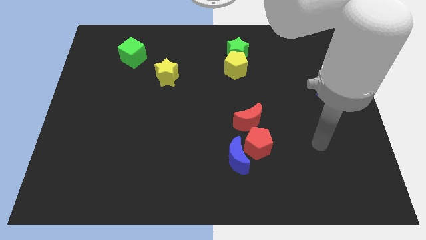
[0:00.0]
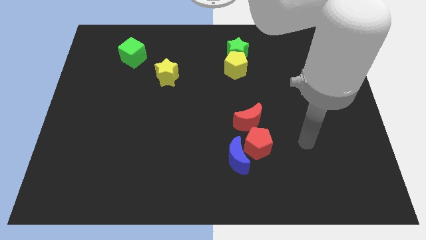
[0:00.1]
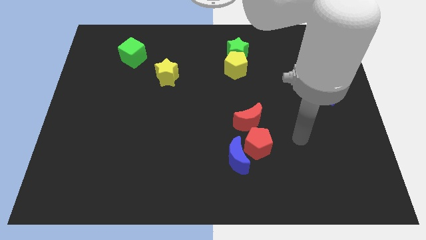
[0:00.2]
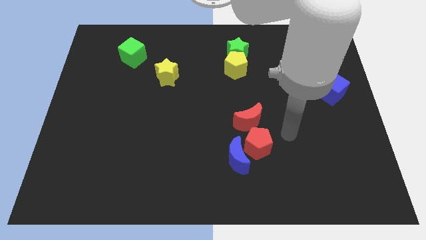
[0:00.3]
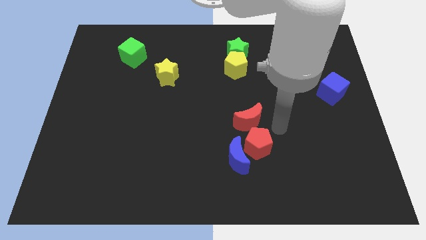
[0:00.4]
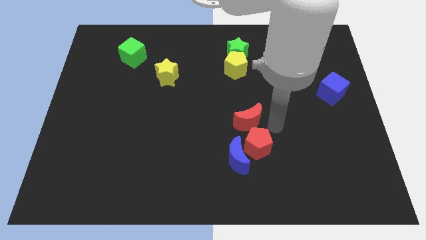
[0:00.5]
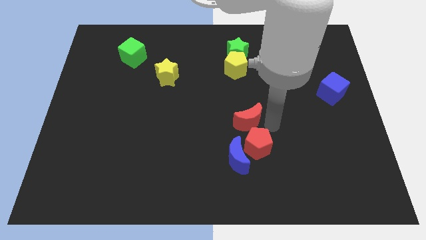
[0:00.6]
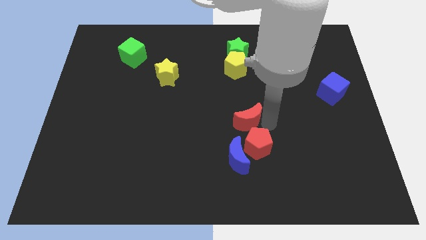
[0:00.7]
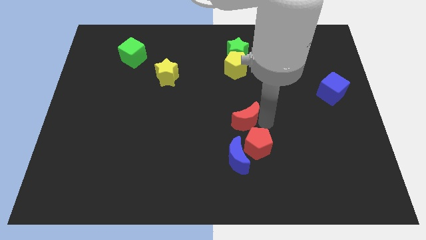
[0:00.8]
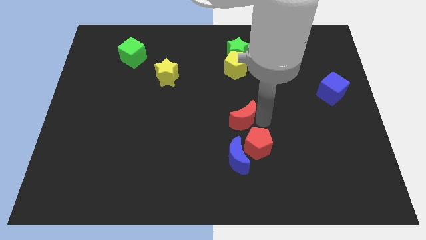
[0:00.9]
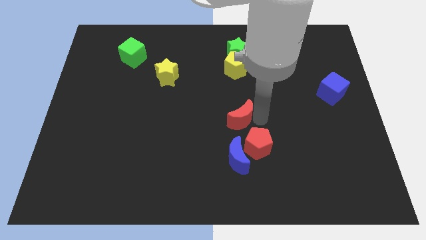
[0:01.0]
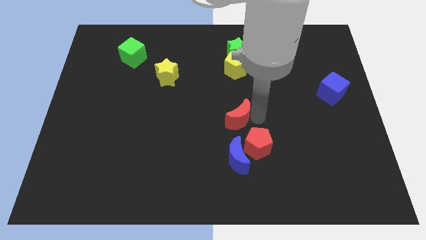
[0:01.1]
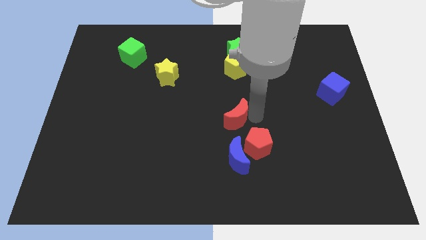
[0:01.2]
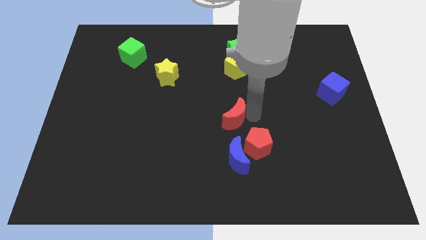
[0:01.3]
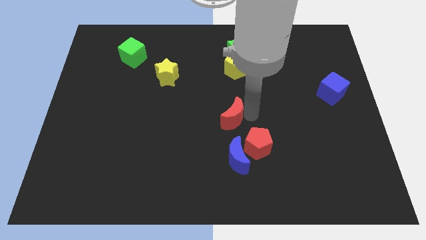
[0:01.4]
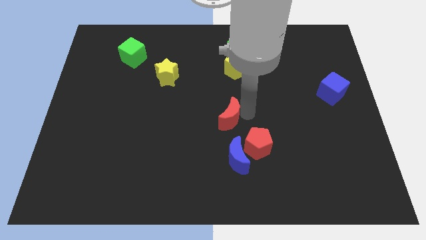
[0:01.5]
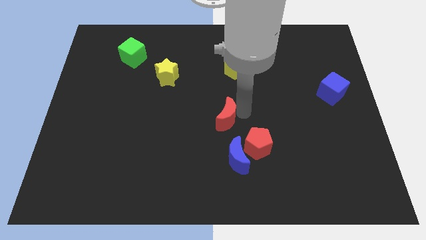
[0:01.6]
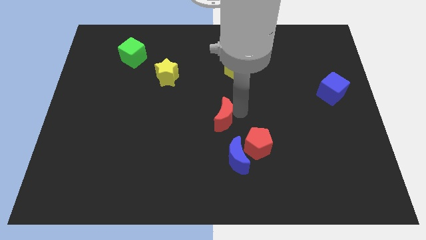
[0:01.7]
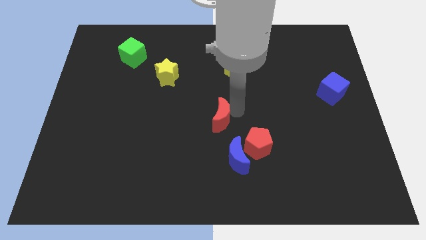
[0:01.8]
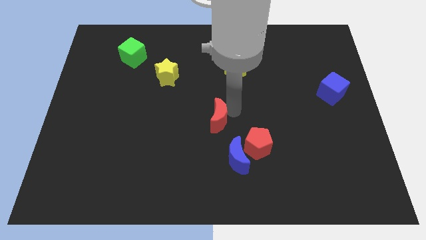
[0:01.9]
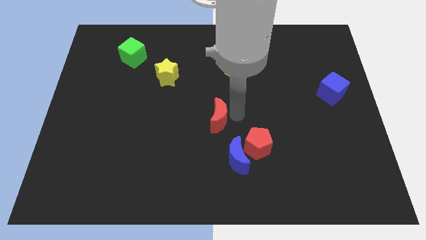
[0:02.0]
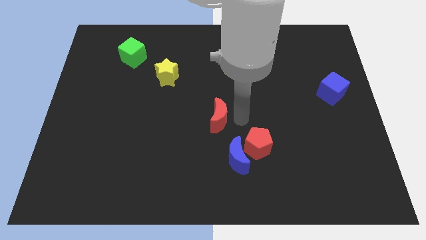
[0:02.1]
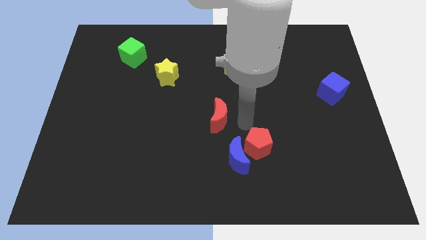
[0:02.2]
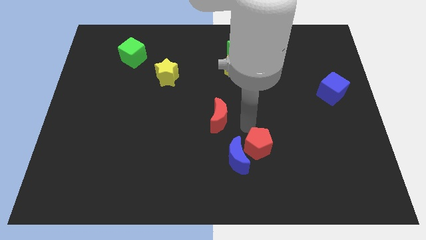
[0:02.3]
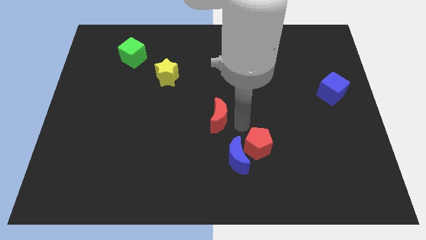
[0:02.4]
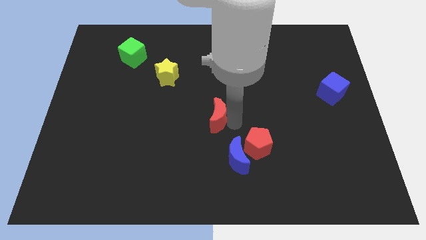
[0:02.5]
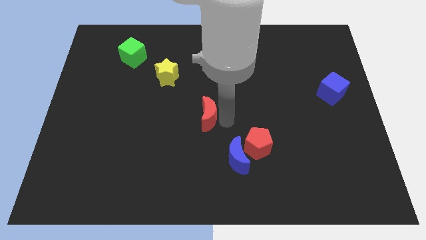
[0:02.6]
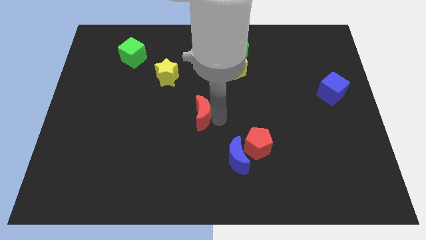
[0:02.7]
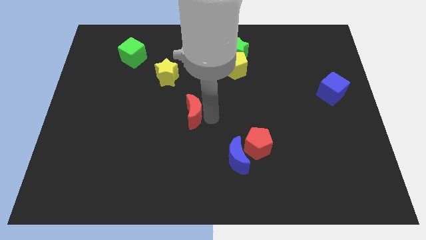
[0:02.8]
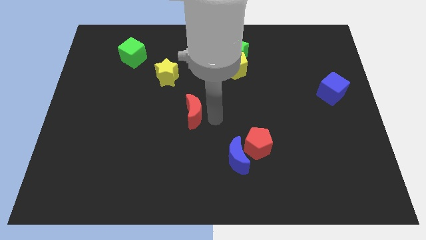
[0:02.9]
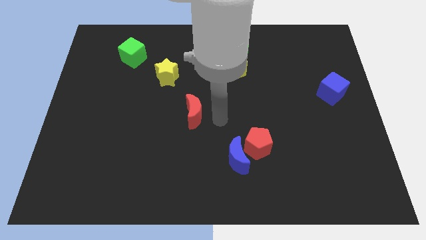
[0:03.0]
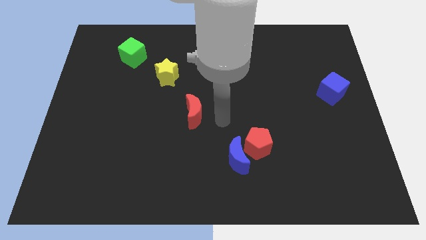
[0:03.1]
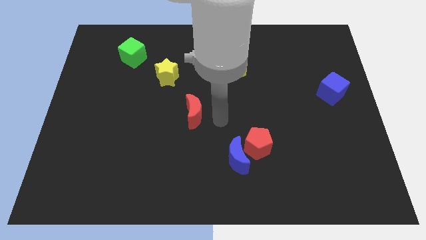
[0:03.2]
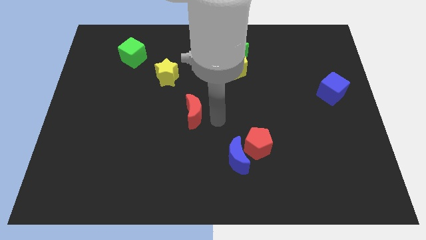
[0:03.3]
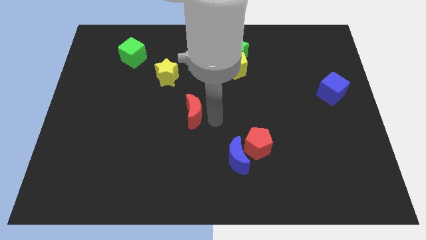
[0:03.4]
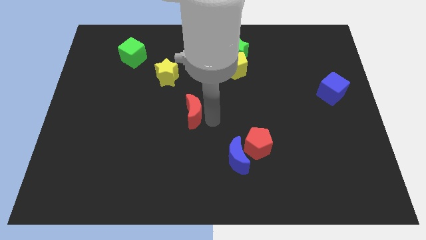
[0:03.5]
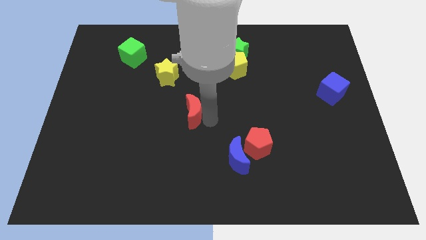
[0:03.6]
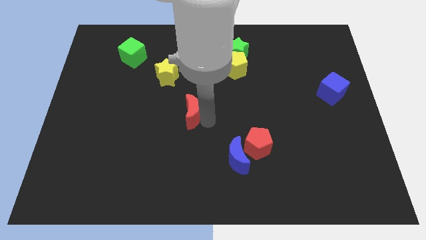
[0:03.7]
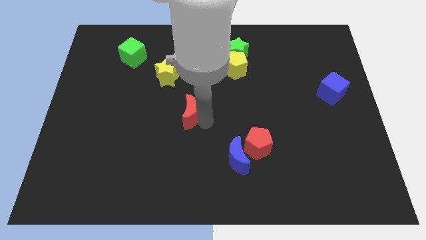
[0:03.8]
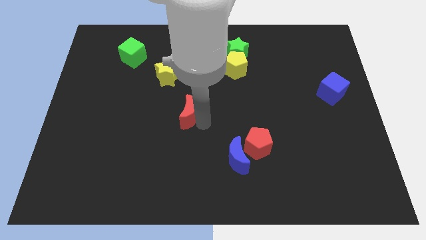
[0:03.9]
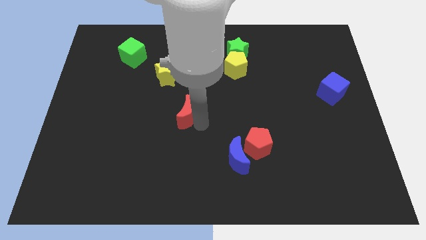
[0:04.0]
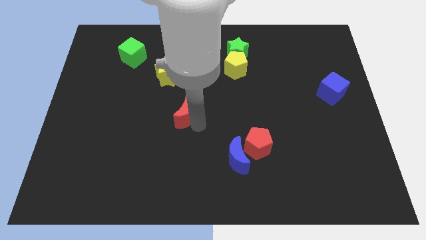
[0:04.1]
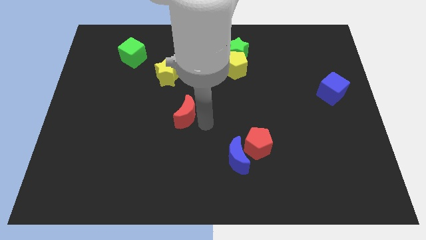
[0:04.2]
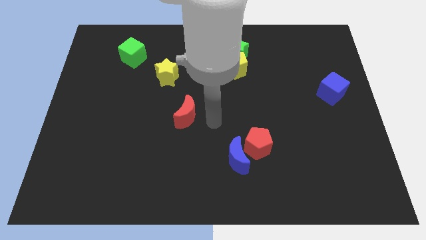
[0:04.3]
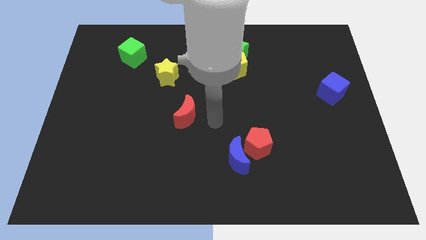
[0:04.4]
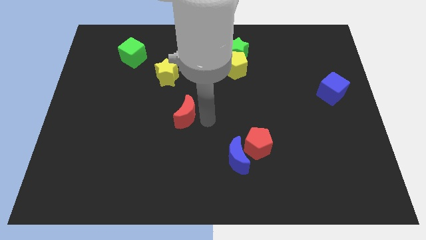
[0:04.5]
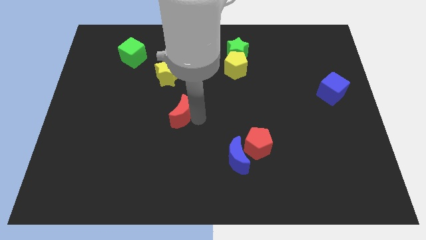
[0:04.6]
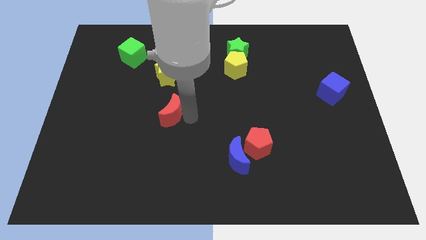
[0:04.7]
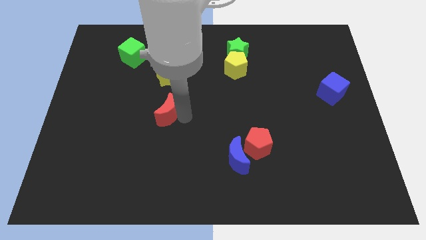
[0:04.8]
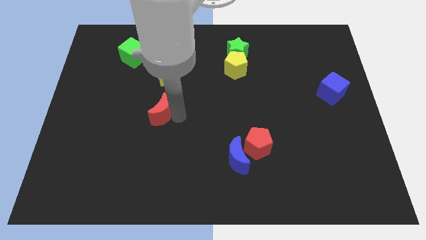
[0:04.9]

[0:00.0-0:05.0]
move the red moon to the left

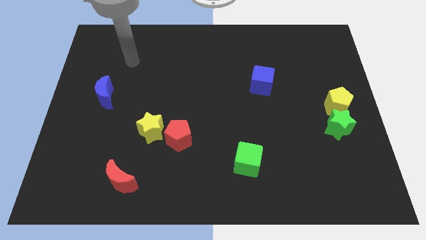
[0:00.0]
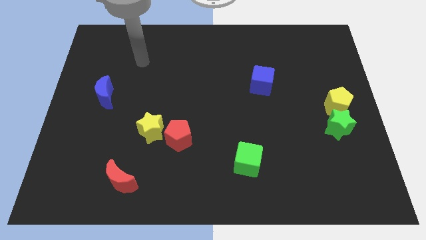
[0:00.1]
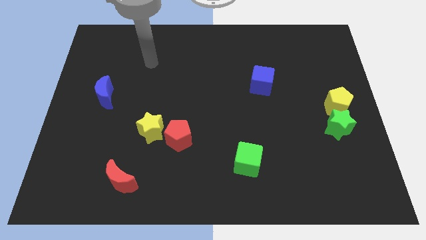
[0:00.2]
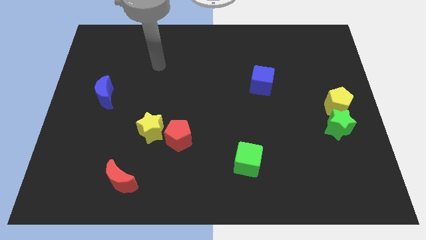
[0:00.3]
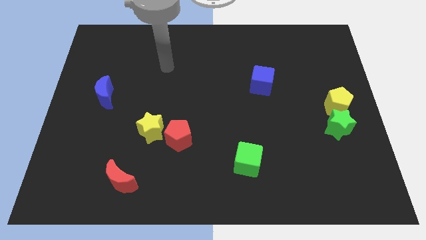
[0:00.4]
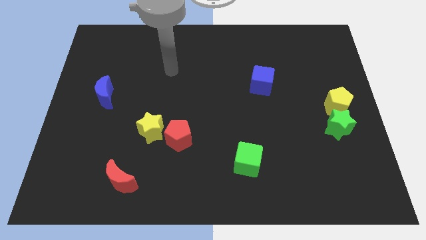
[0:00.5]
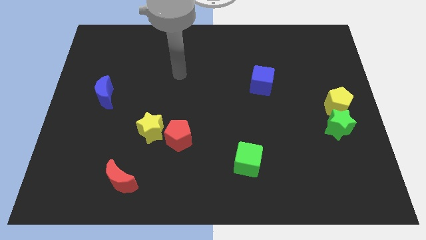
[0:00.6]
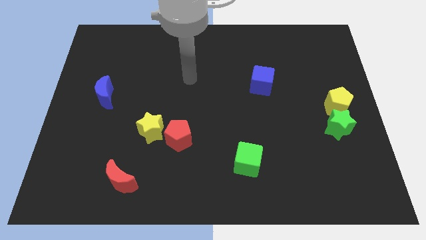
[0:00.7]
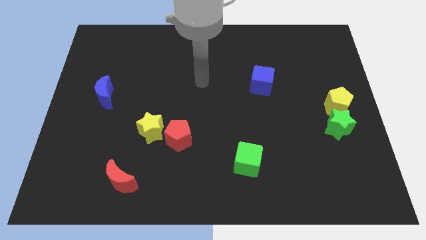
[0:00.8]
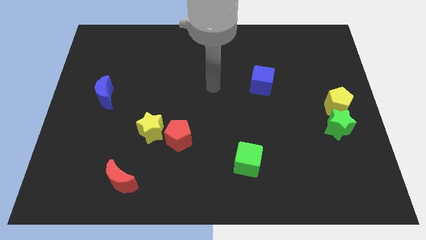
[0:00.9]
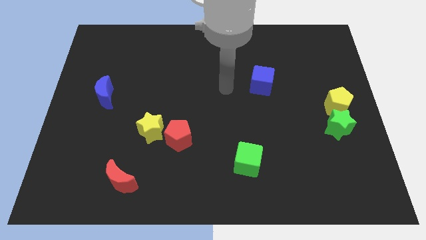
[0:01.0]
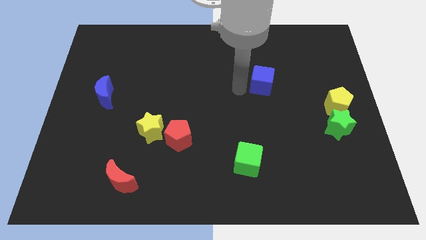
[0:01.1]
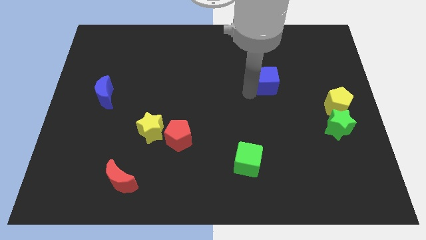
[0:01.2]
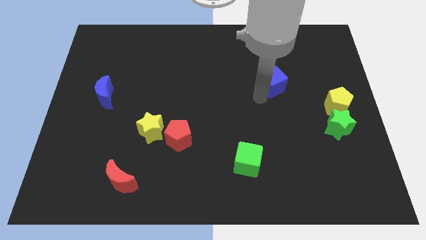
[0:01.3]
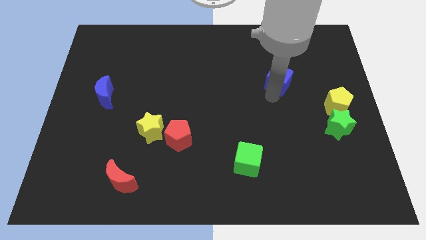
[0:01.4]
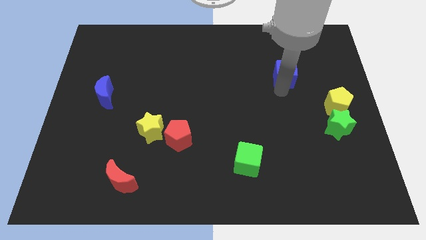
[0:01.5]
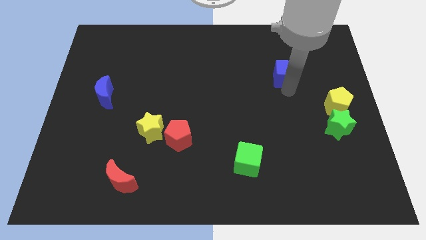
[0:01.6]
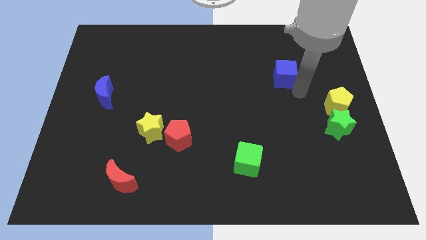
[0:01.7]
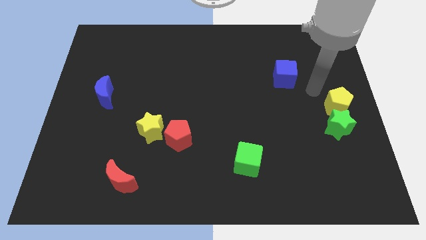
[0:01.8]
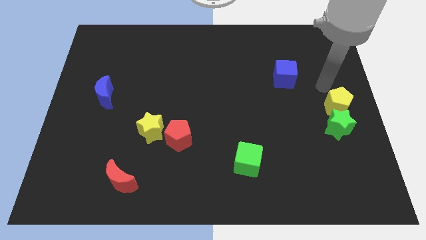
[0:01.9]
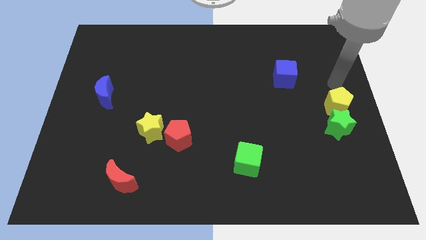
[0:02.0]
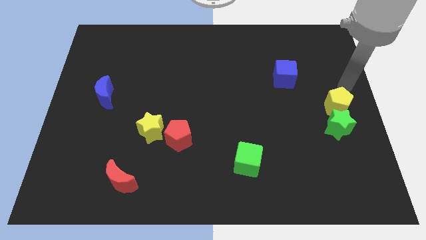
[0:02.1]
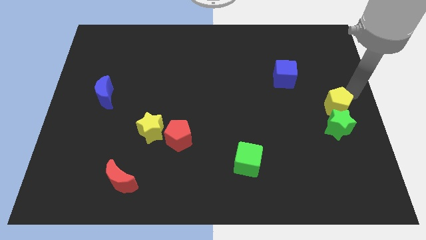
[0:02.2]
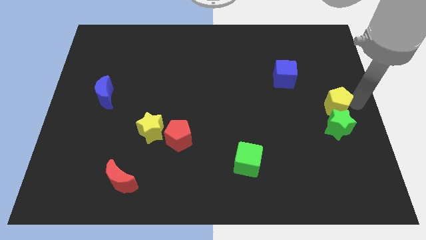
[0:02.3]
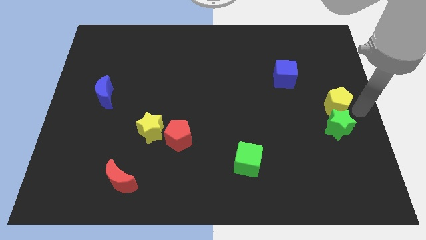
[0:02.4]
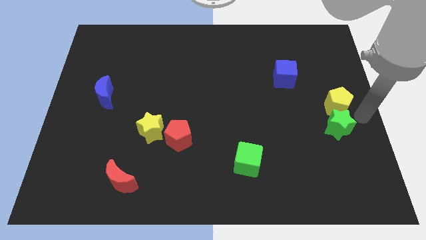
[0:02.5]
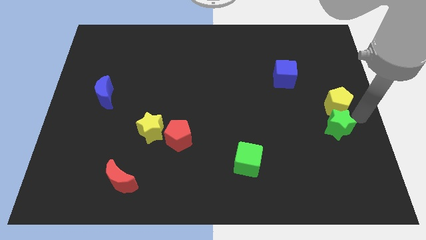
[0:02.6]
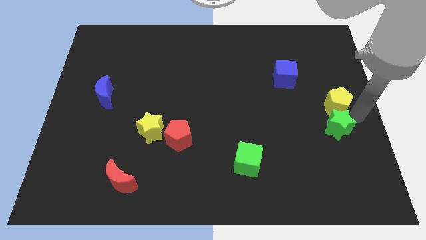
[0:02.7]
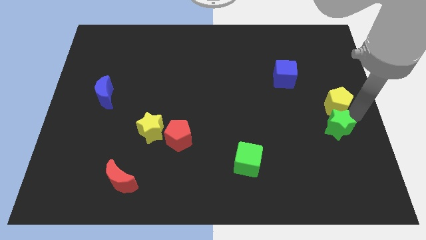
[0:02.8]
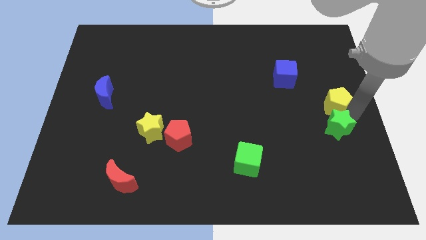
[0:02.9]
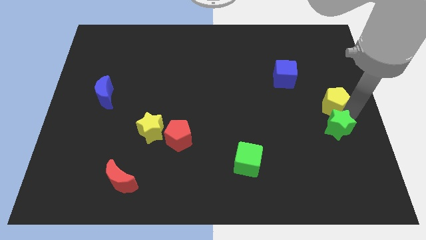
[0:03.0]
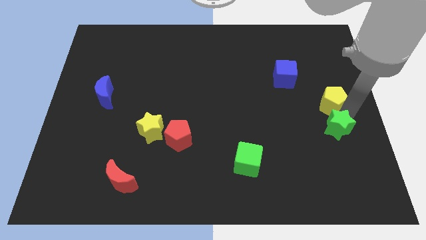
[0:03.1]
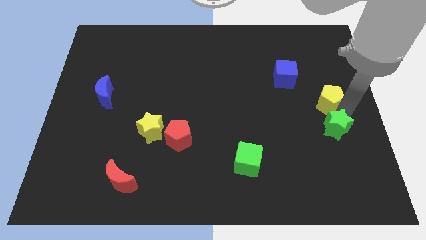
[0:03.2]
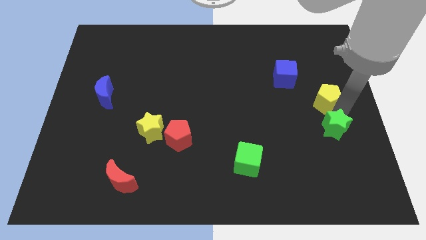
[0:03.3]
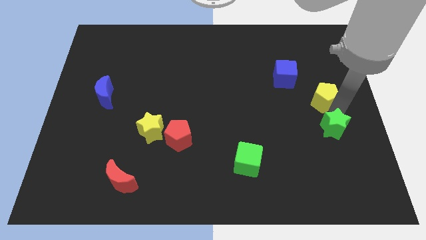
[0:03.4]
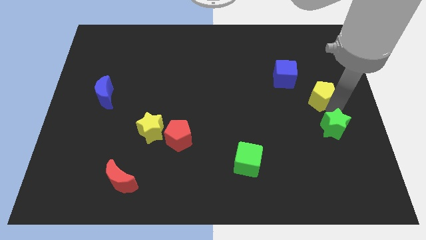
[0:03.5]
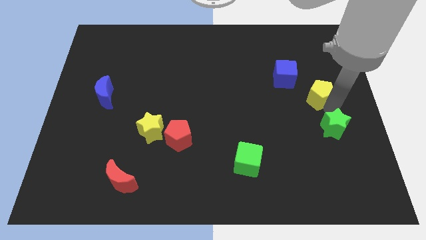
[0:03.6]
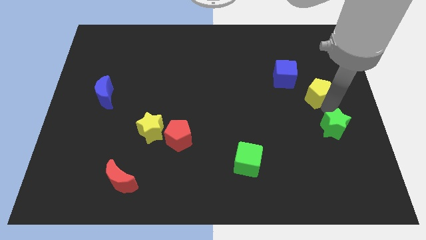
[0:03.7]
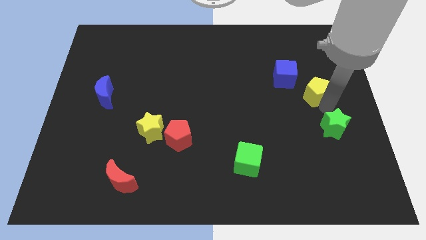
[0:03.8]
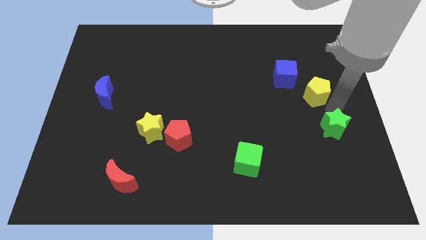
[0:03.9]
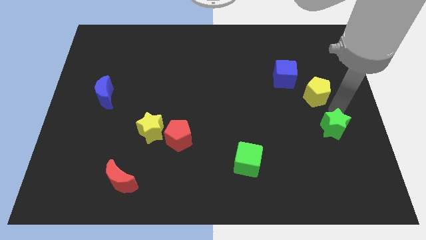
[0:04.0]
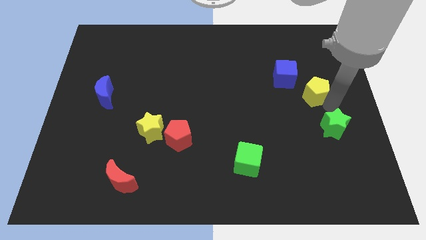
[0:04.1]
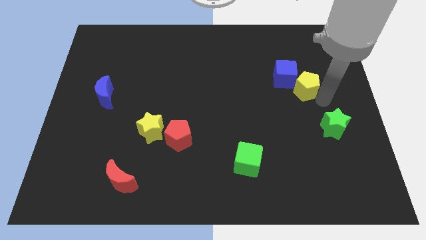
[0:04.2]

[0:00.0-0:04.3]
slide the yellow pentagon up and left a bit
